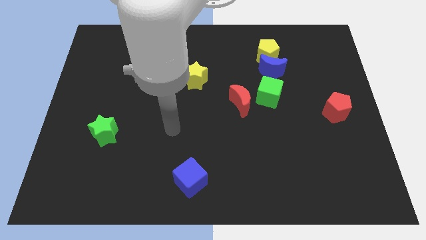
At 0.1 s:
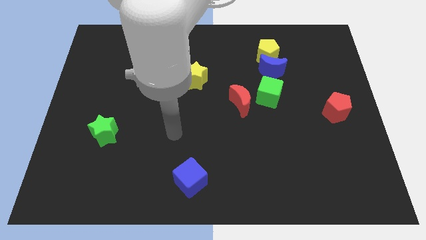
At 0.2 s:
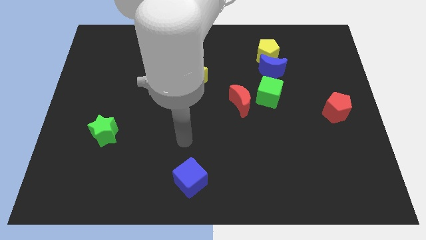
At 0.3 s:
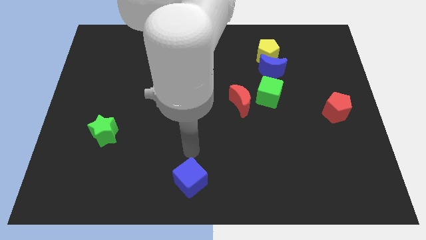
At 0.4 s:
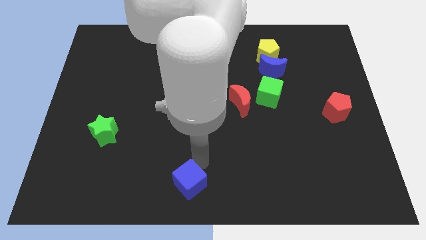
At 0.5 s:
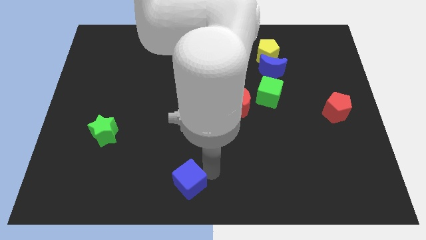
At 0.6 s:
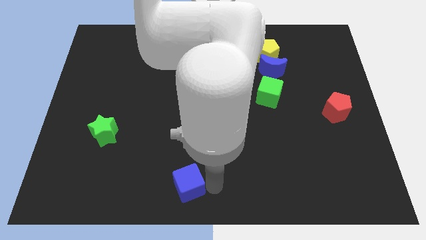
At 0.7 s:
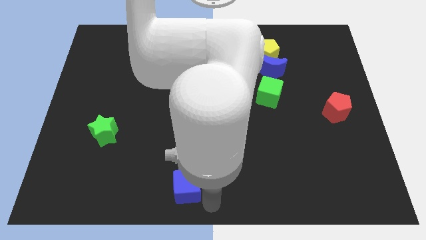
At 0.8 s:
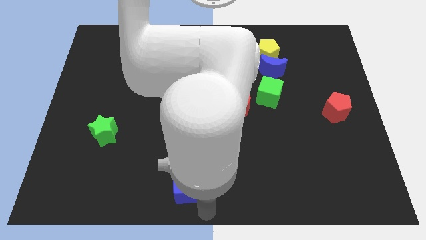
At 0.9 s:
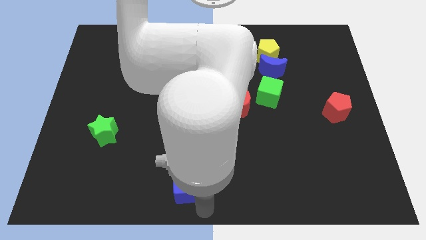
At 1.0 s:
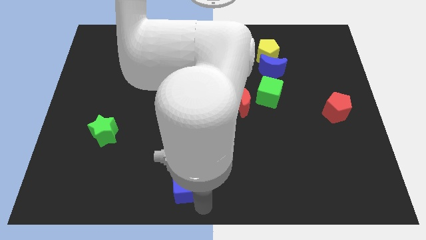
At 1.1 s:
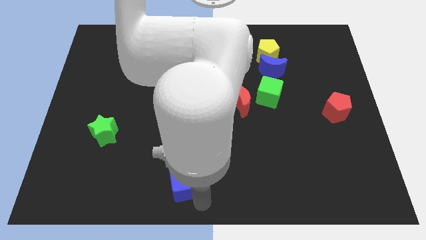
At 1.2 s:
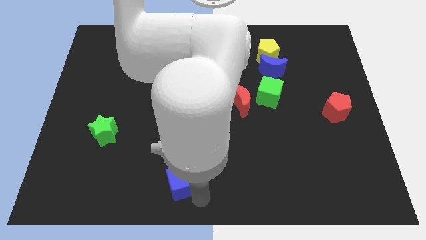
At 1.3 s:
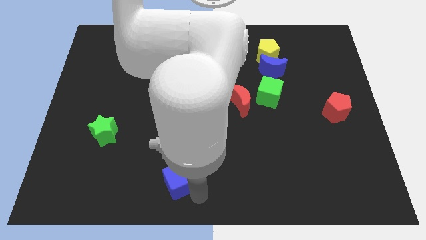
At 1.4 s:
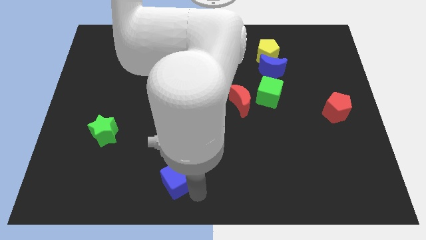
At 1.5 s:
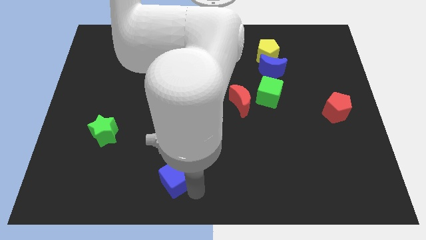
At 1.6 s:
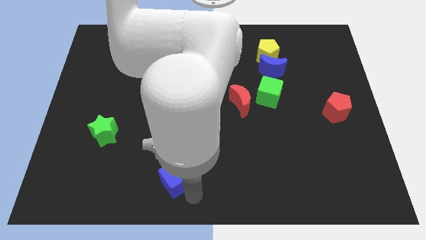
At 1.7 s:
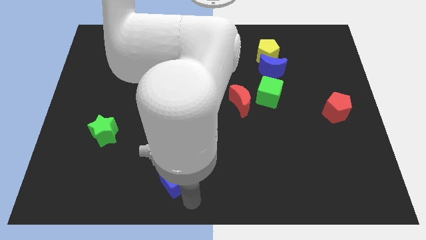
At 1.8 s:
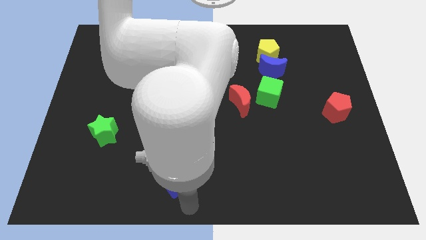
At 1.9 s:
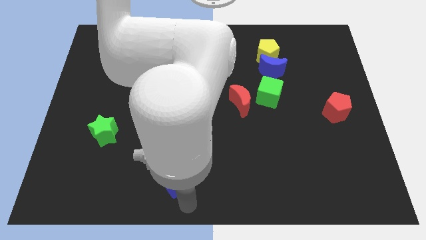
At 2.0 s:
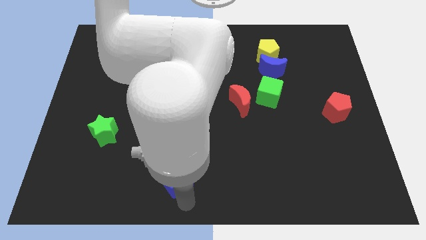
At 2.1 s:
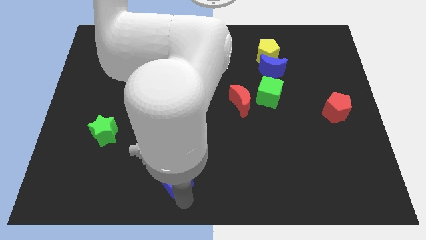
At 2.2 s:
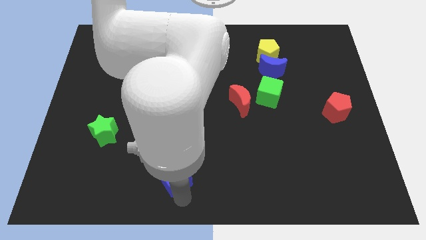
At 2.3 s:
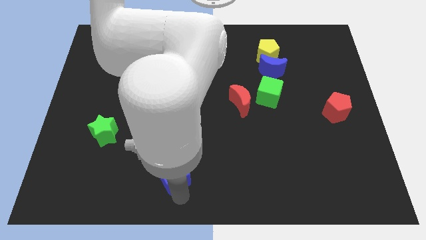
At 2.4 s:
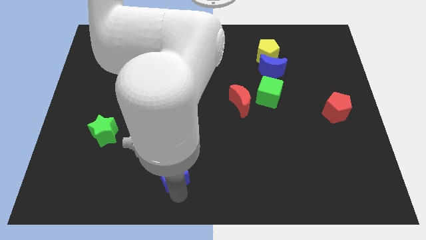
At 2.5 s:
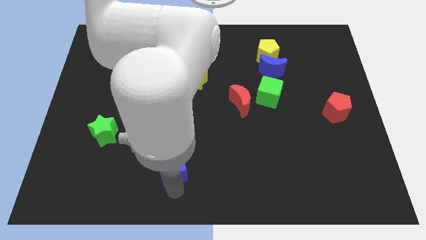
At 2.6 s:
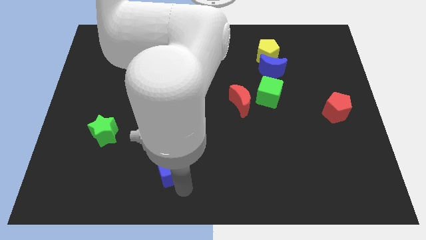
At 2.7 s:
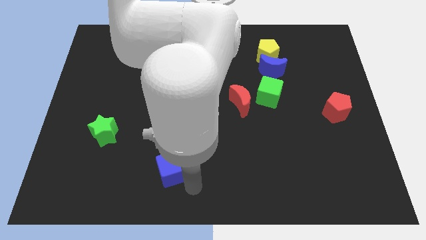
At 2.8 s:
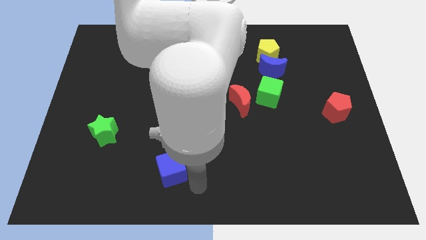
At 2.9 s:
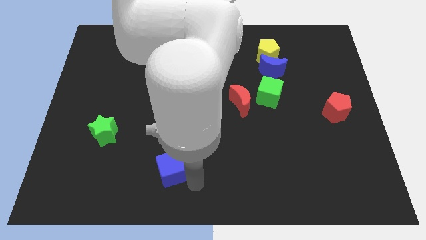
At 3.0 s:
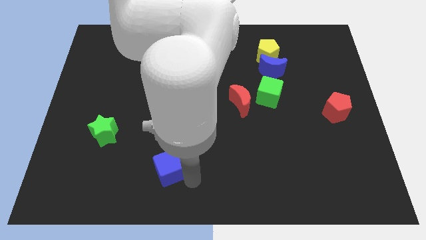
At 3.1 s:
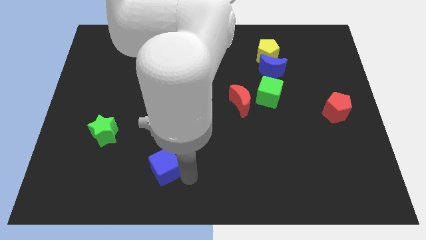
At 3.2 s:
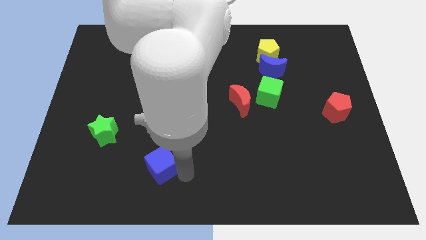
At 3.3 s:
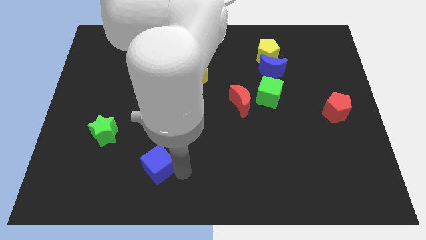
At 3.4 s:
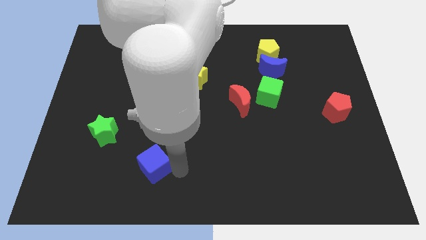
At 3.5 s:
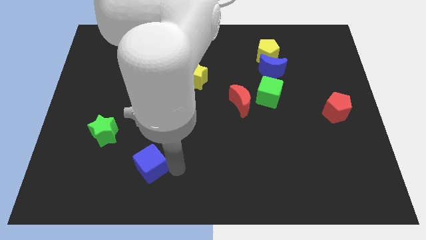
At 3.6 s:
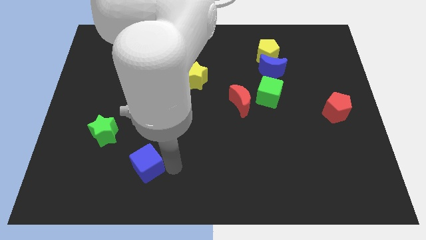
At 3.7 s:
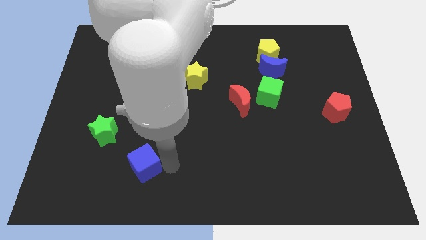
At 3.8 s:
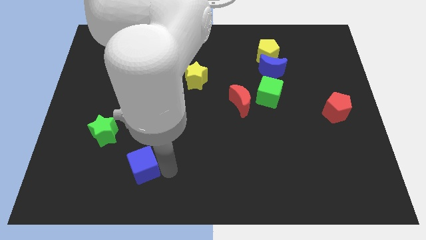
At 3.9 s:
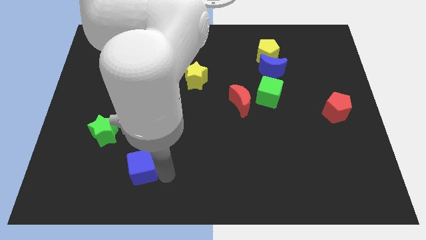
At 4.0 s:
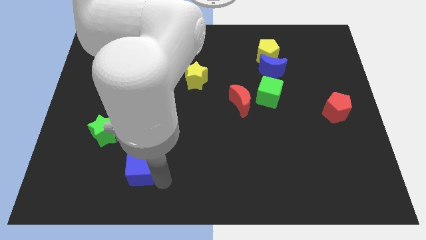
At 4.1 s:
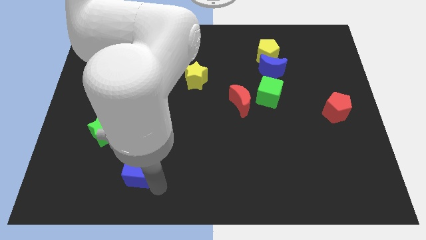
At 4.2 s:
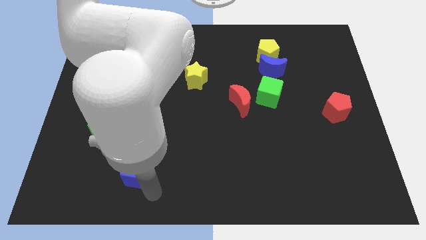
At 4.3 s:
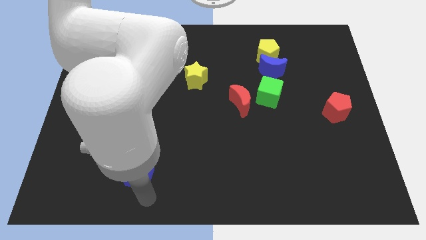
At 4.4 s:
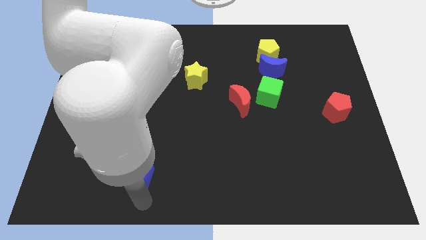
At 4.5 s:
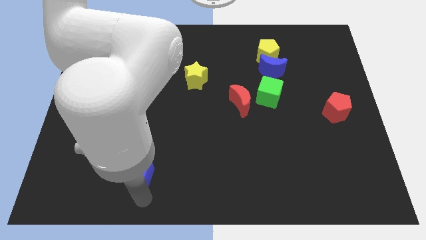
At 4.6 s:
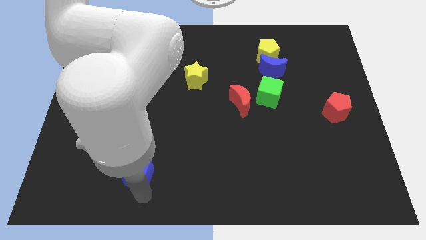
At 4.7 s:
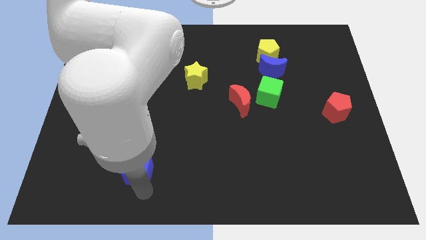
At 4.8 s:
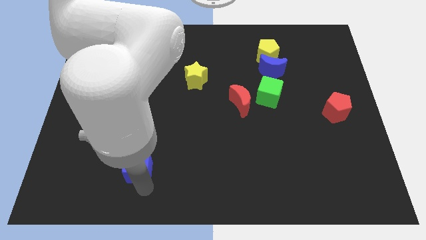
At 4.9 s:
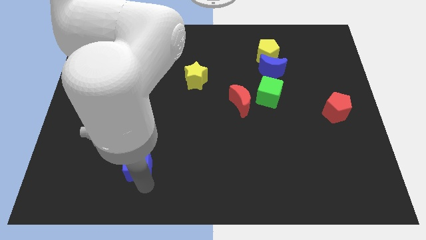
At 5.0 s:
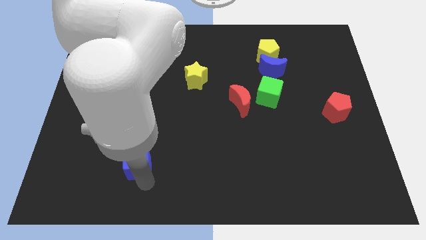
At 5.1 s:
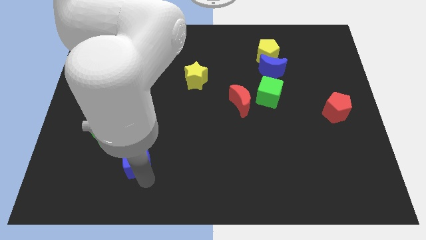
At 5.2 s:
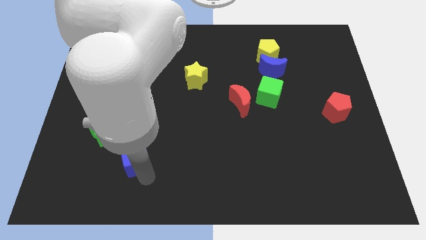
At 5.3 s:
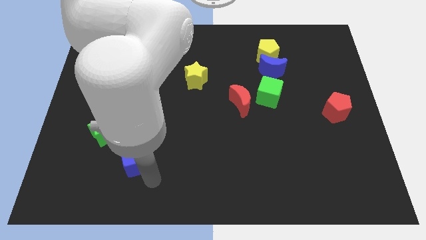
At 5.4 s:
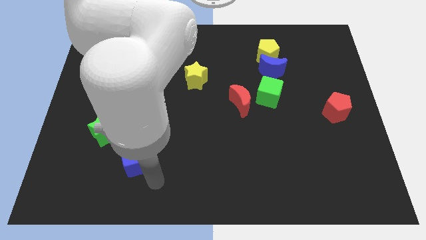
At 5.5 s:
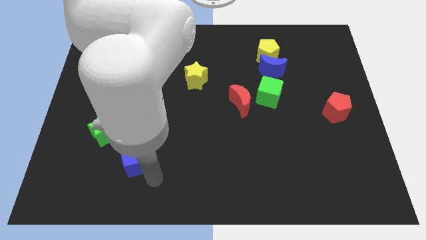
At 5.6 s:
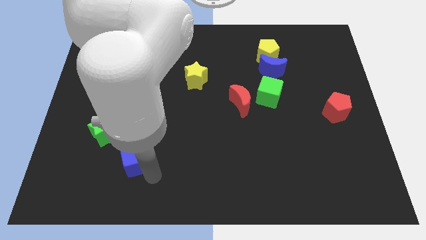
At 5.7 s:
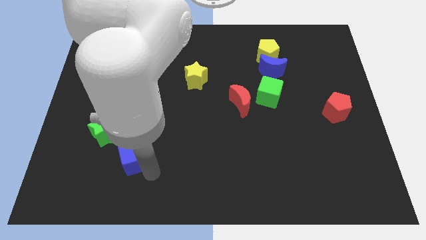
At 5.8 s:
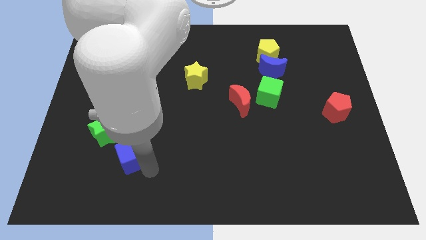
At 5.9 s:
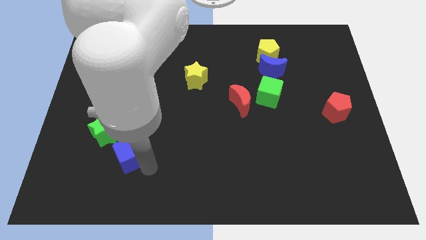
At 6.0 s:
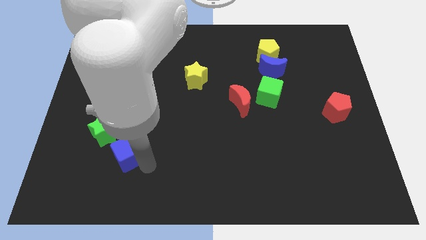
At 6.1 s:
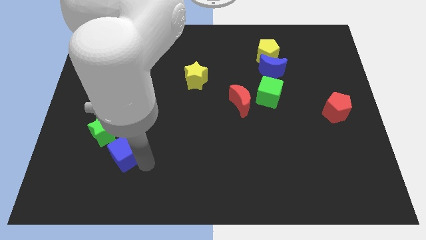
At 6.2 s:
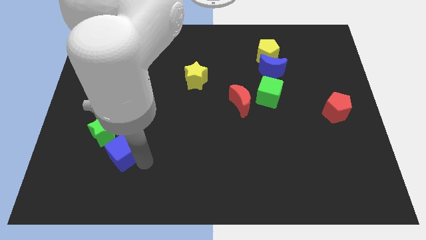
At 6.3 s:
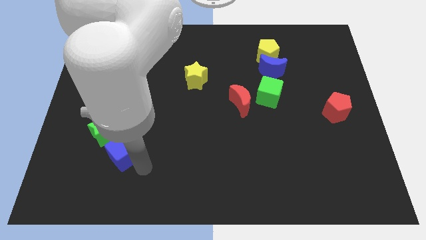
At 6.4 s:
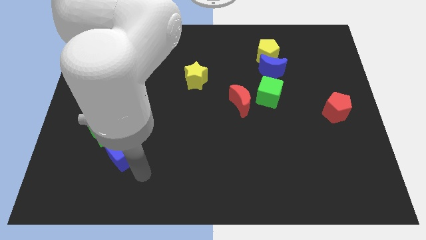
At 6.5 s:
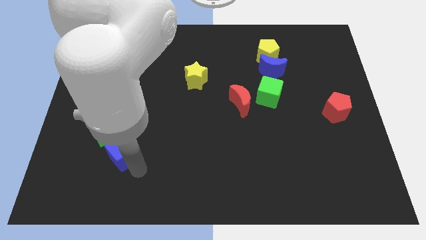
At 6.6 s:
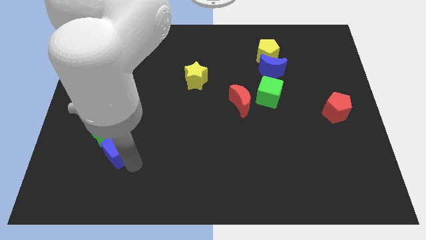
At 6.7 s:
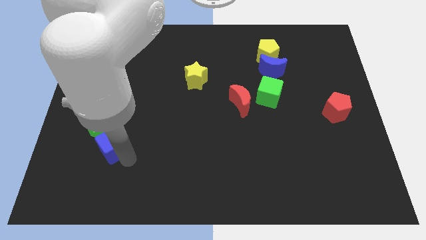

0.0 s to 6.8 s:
push the blue cube towards the green star

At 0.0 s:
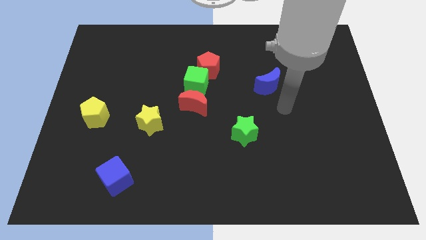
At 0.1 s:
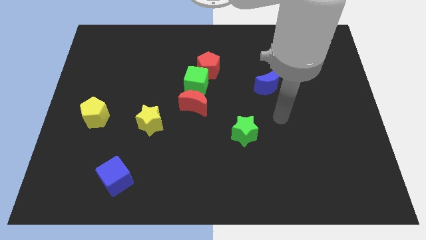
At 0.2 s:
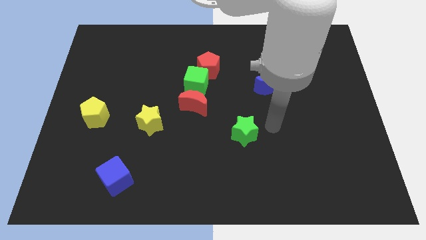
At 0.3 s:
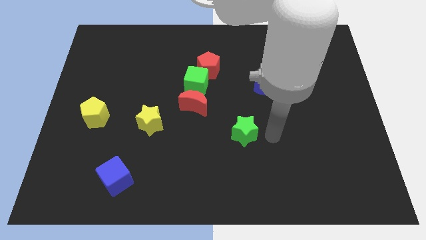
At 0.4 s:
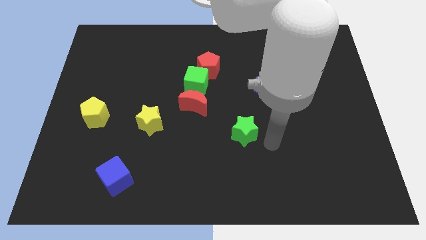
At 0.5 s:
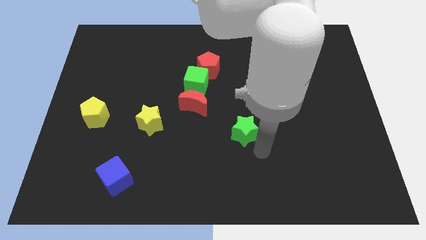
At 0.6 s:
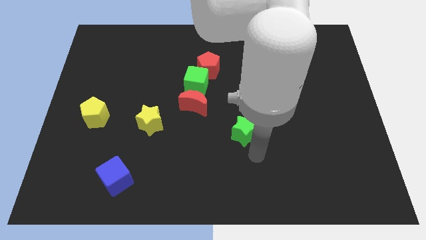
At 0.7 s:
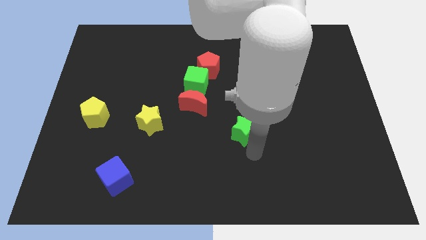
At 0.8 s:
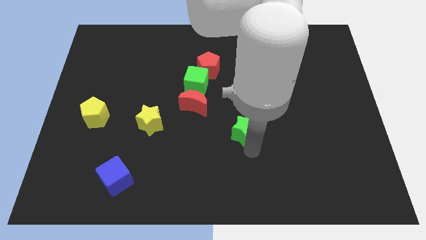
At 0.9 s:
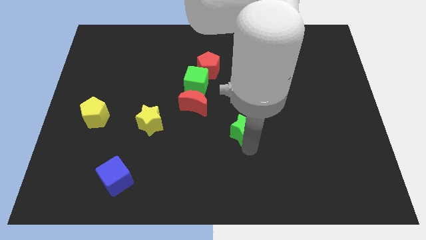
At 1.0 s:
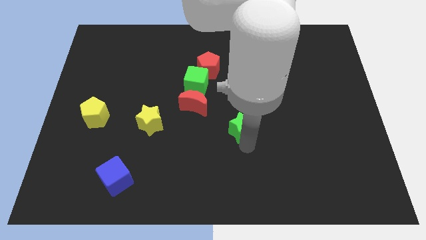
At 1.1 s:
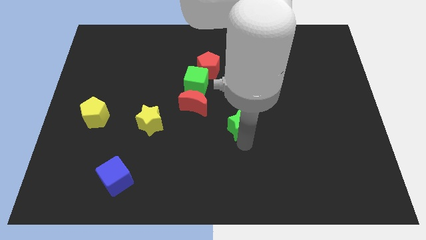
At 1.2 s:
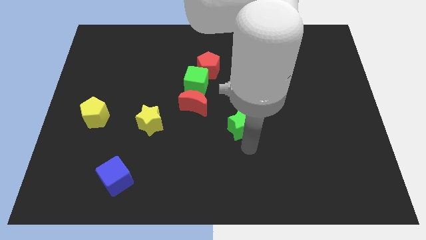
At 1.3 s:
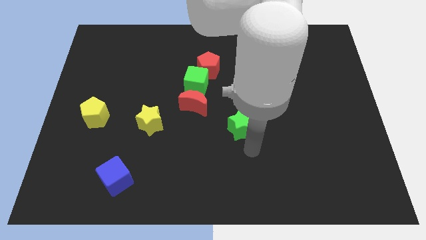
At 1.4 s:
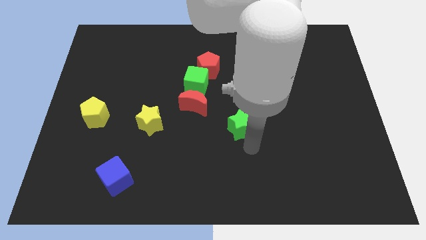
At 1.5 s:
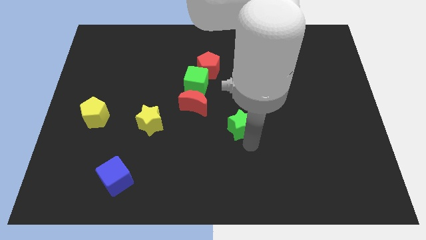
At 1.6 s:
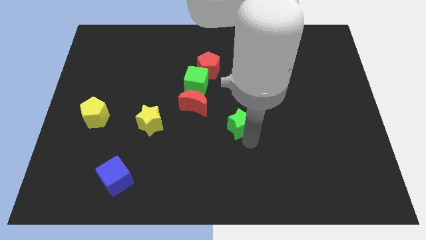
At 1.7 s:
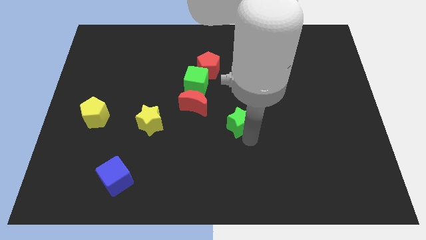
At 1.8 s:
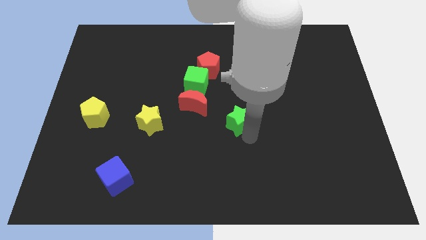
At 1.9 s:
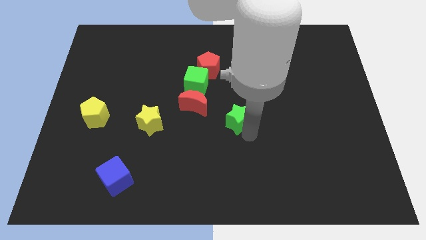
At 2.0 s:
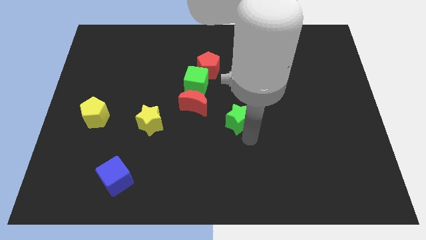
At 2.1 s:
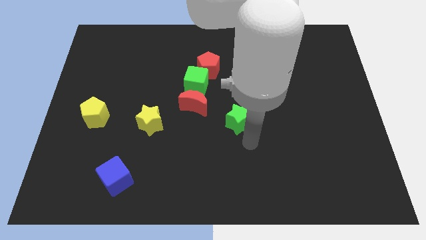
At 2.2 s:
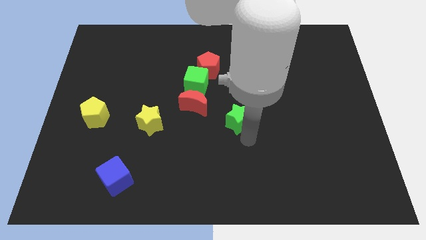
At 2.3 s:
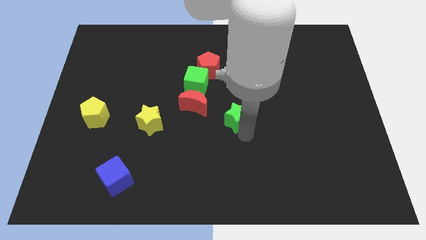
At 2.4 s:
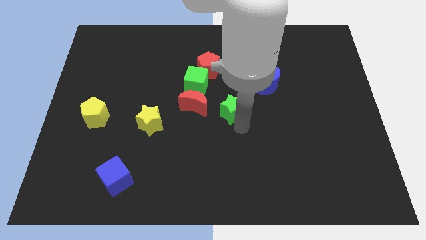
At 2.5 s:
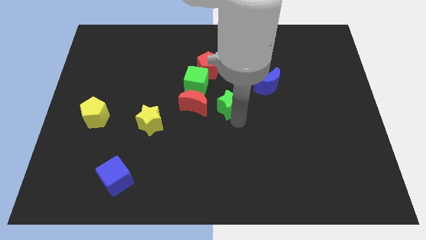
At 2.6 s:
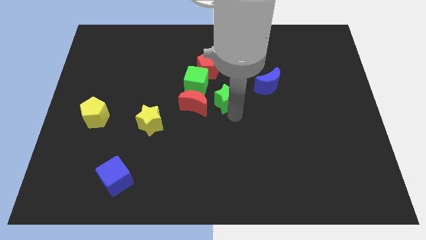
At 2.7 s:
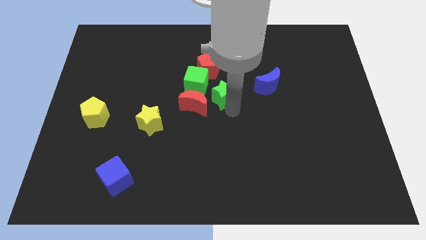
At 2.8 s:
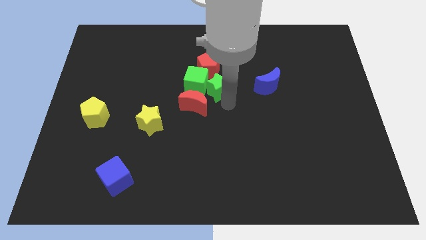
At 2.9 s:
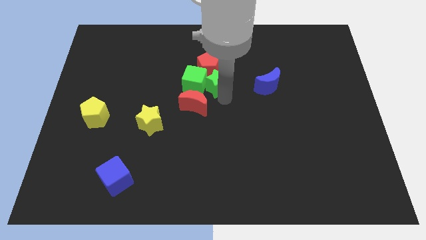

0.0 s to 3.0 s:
push the green star towards the red pentagon
